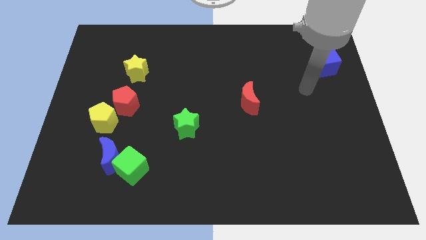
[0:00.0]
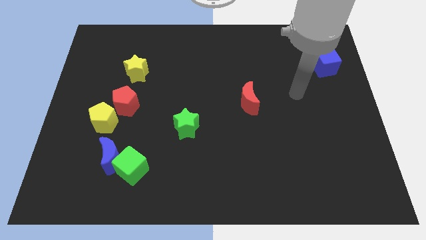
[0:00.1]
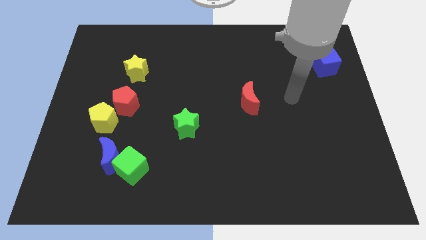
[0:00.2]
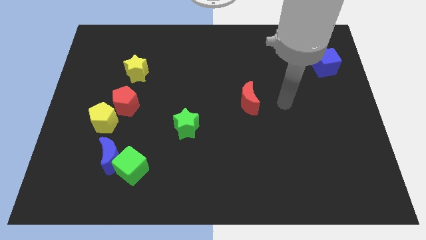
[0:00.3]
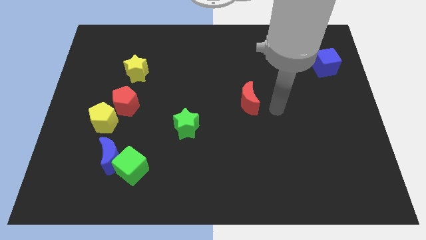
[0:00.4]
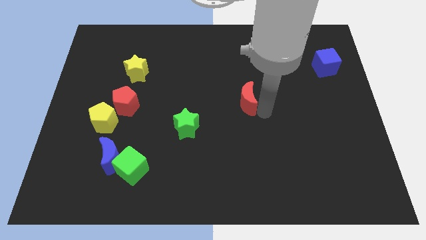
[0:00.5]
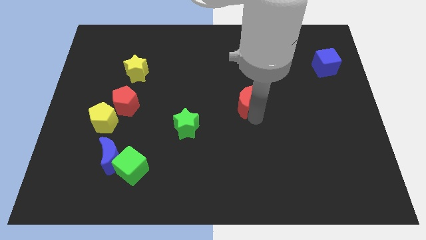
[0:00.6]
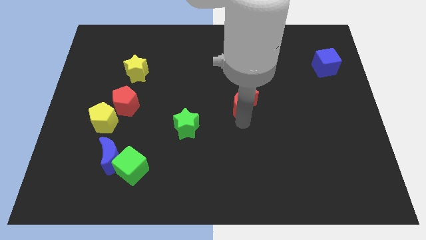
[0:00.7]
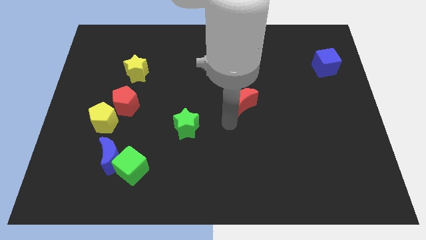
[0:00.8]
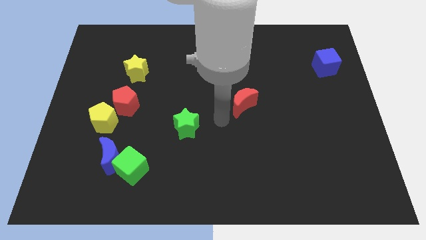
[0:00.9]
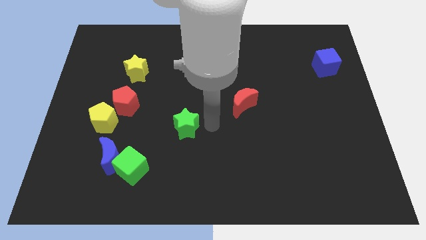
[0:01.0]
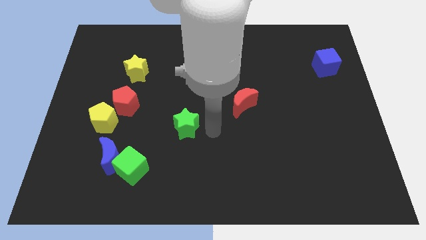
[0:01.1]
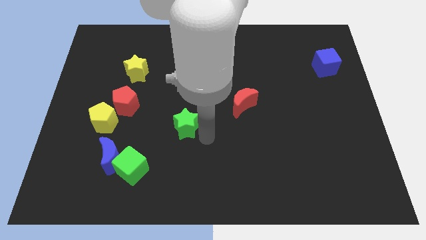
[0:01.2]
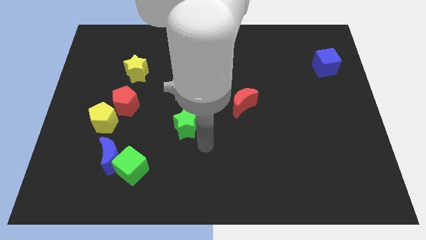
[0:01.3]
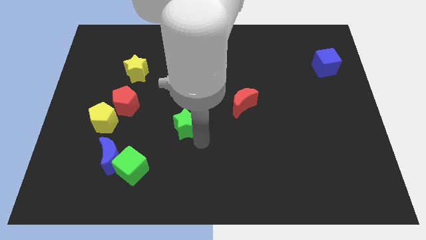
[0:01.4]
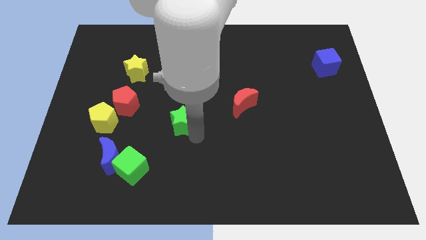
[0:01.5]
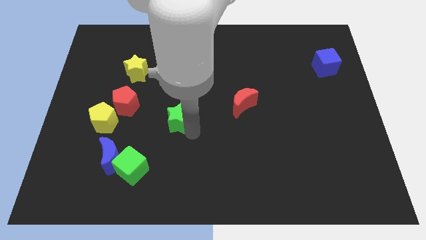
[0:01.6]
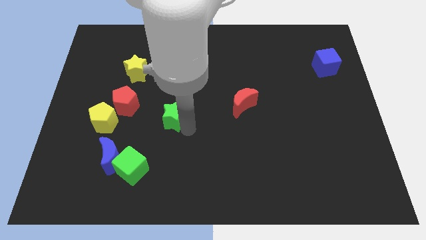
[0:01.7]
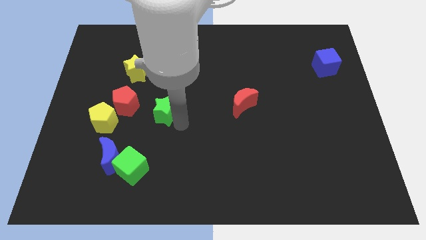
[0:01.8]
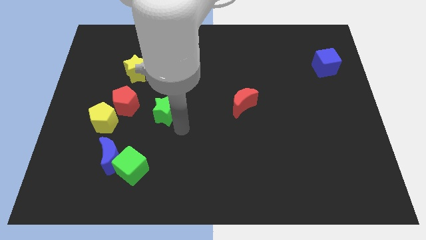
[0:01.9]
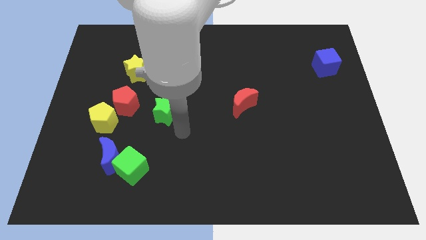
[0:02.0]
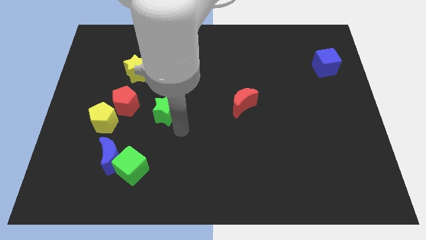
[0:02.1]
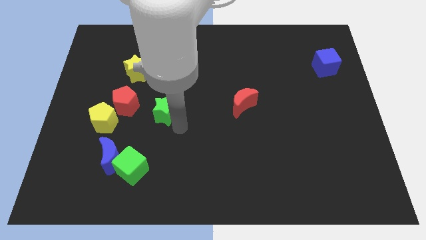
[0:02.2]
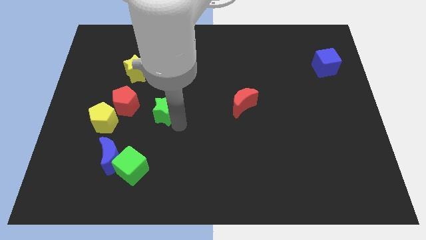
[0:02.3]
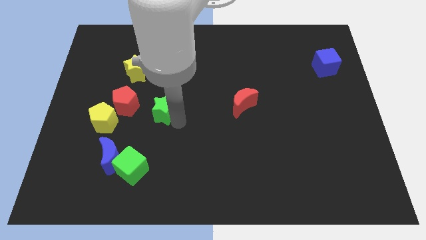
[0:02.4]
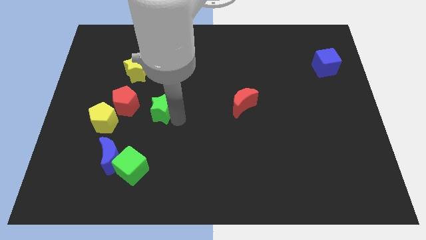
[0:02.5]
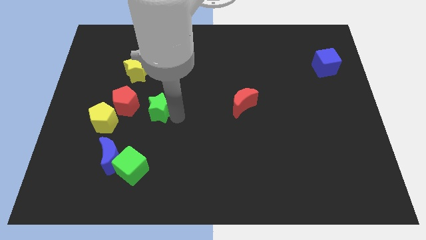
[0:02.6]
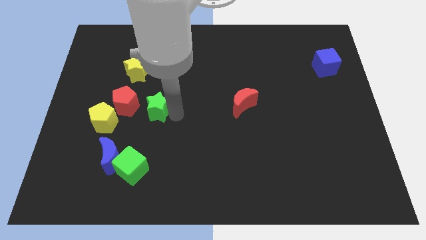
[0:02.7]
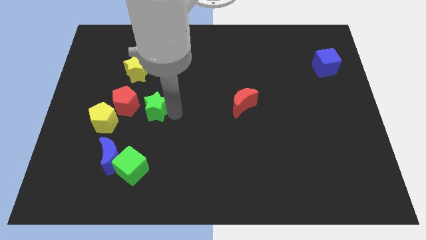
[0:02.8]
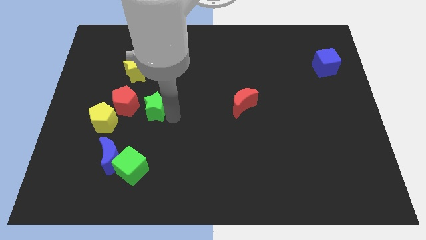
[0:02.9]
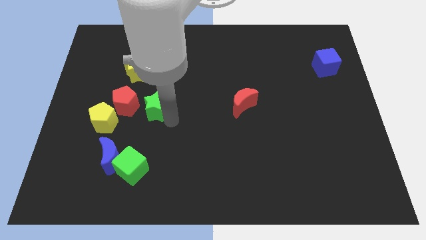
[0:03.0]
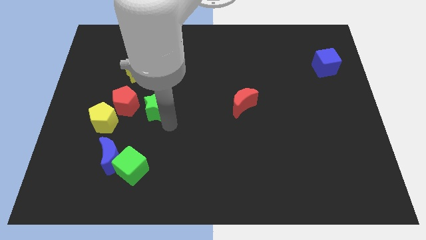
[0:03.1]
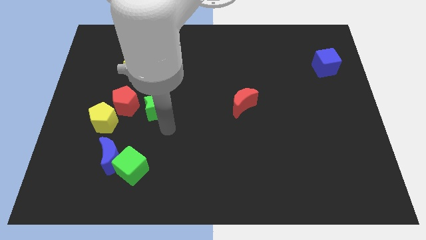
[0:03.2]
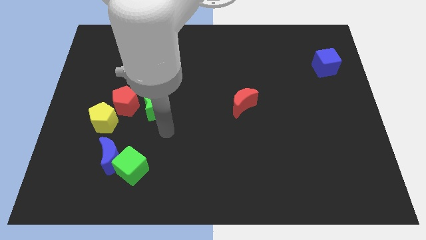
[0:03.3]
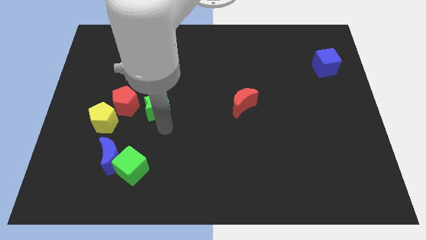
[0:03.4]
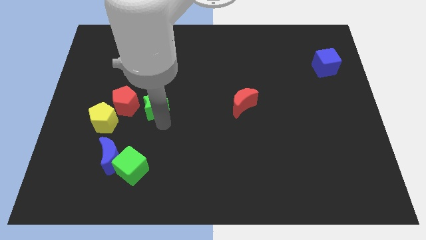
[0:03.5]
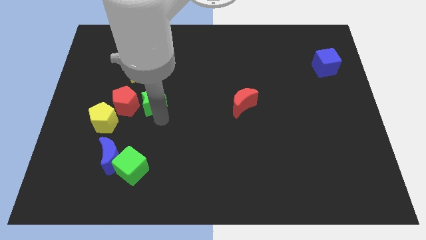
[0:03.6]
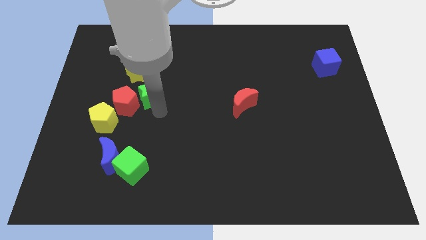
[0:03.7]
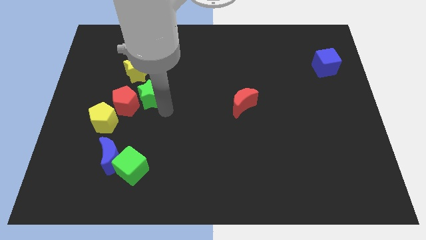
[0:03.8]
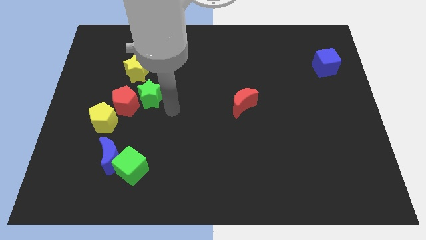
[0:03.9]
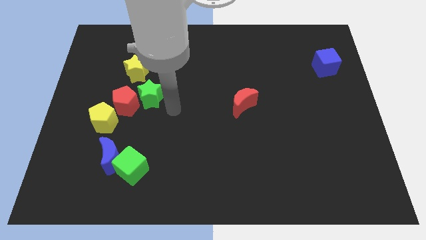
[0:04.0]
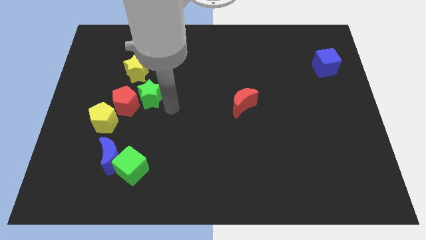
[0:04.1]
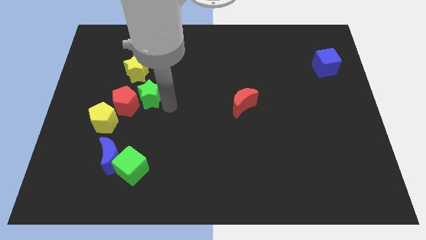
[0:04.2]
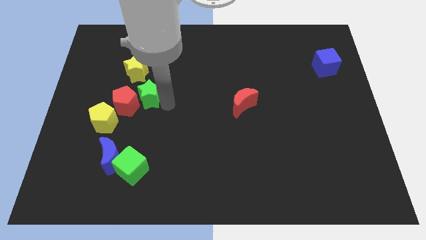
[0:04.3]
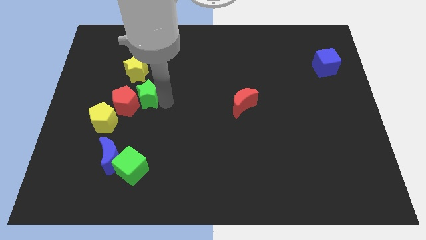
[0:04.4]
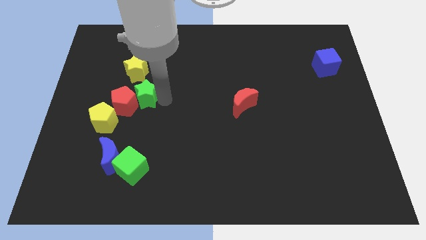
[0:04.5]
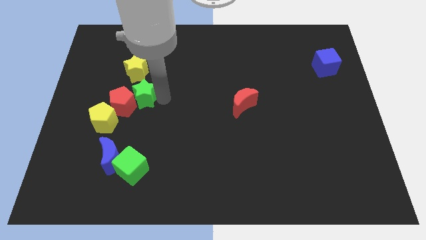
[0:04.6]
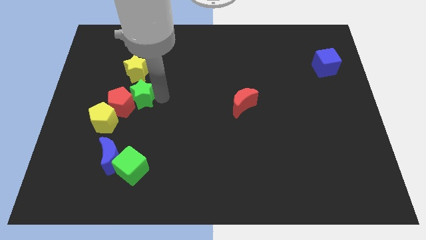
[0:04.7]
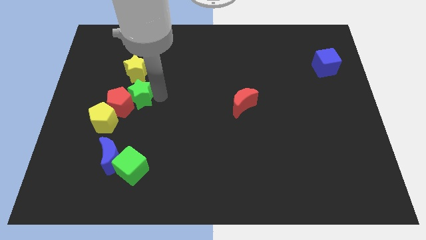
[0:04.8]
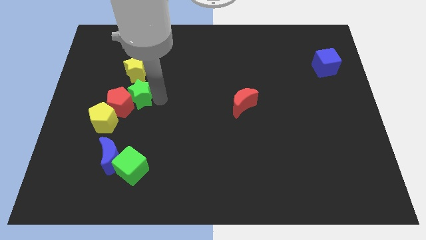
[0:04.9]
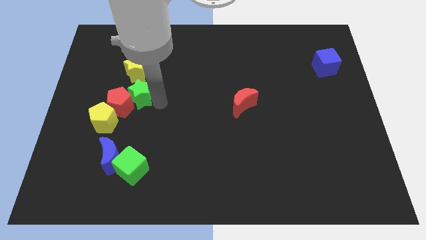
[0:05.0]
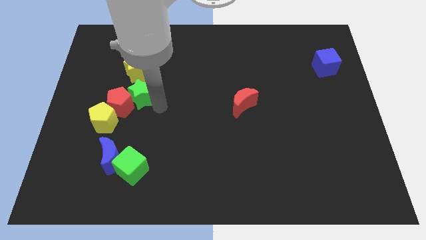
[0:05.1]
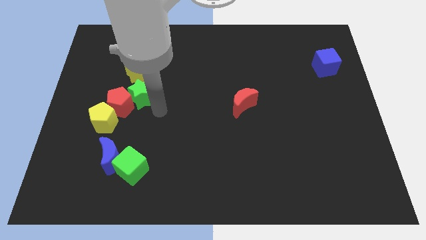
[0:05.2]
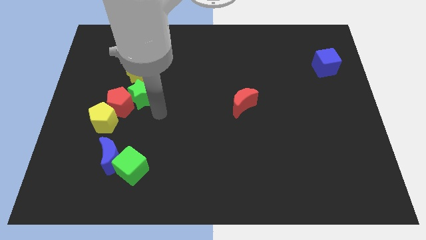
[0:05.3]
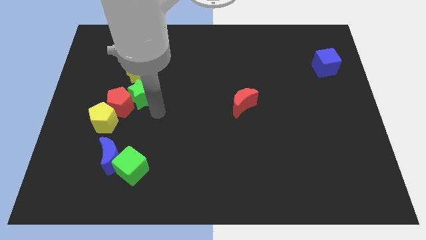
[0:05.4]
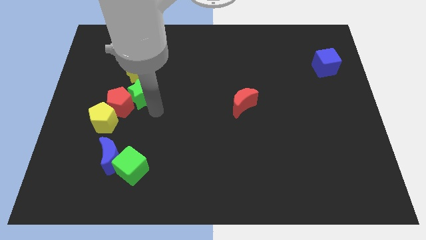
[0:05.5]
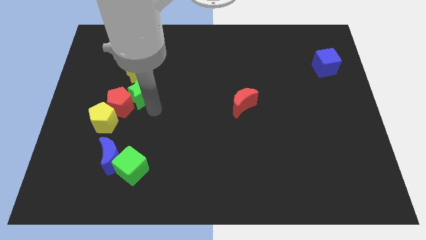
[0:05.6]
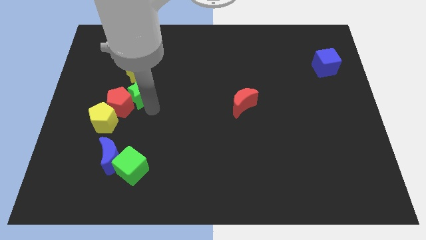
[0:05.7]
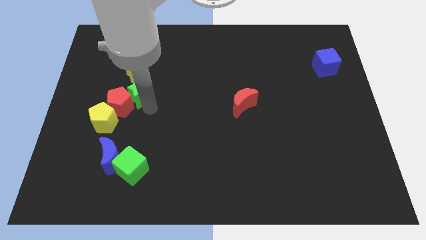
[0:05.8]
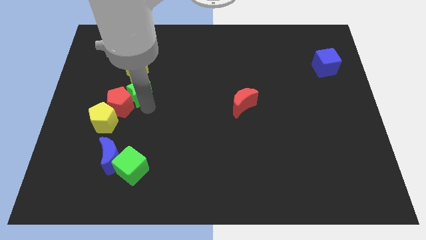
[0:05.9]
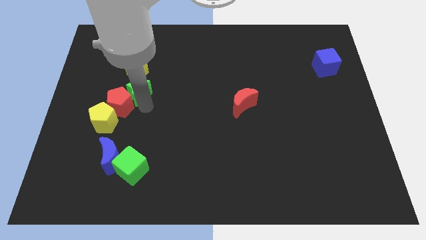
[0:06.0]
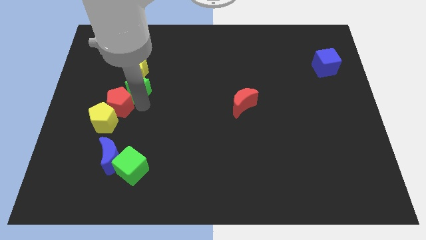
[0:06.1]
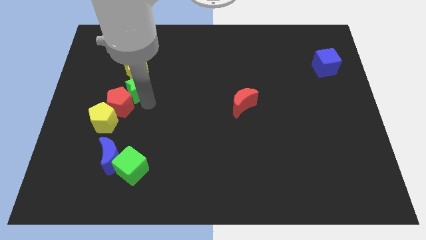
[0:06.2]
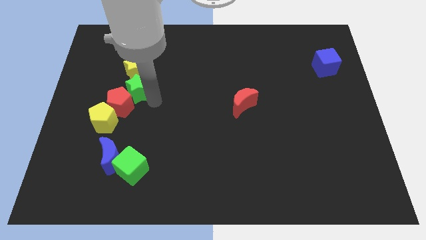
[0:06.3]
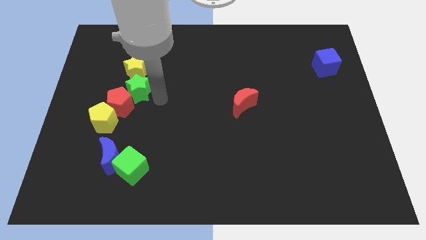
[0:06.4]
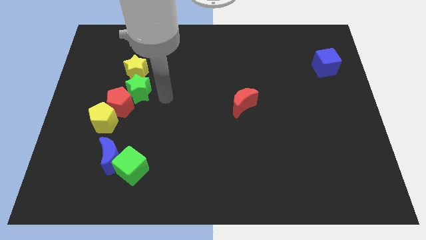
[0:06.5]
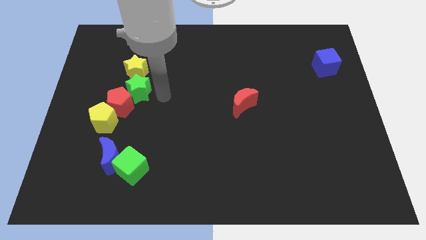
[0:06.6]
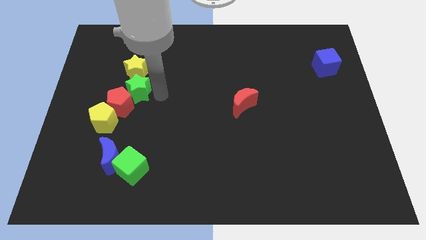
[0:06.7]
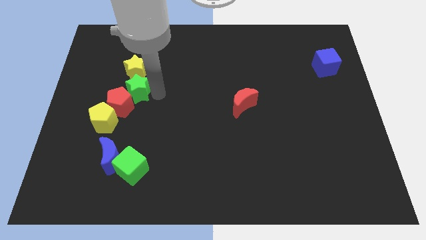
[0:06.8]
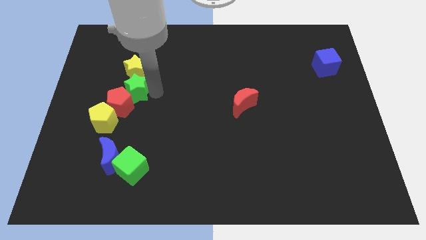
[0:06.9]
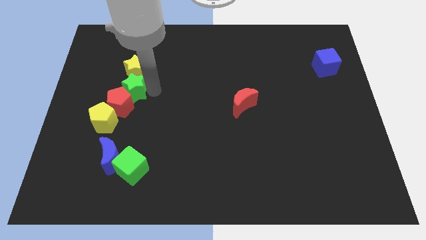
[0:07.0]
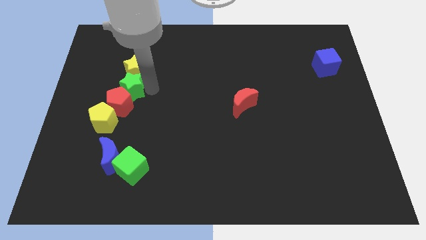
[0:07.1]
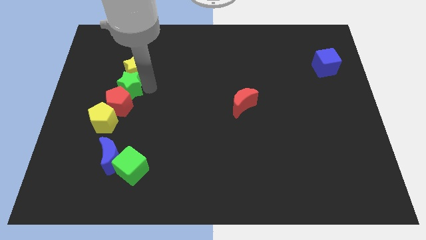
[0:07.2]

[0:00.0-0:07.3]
push the green star above the yellow pentagon
